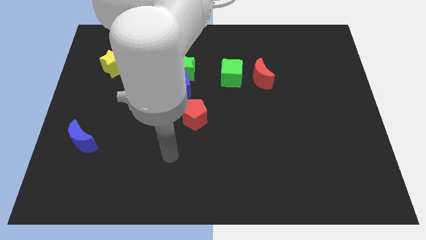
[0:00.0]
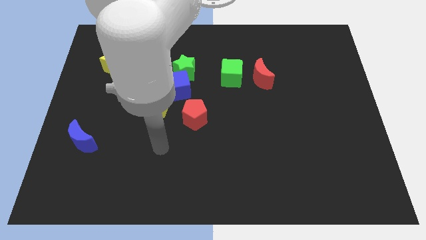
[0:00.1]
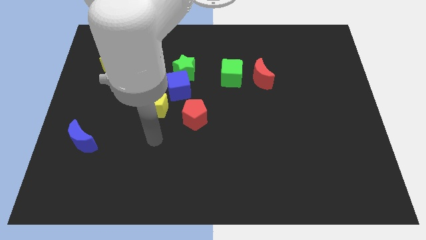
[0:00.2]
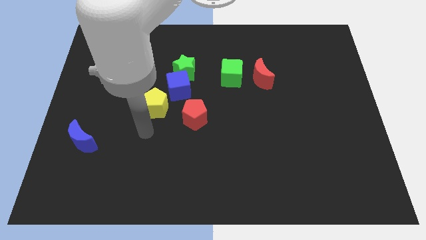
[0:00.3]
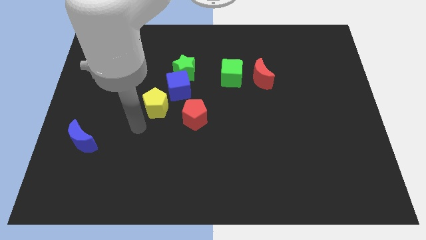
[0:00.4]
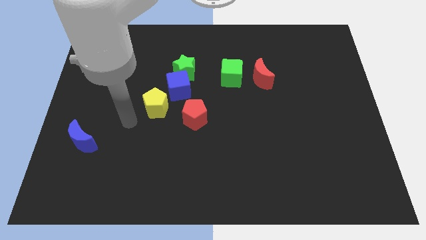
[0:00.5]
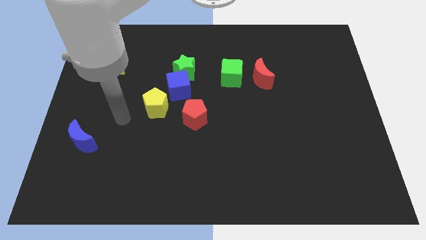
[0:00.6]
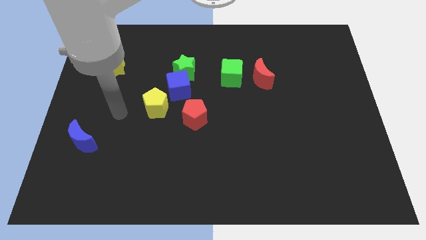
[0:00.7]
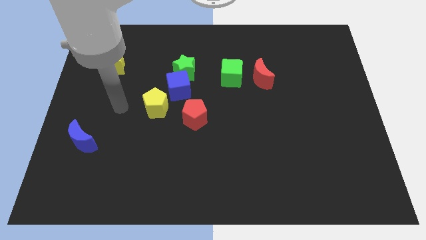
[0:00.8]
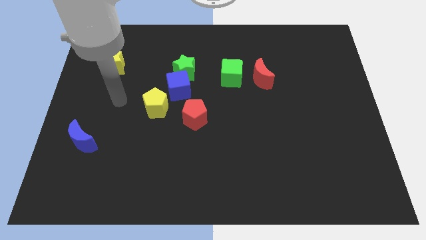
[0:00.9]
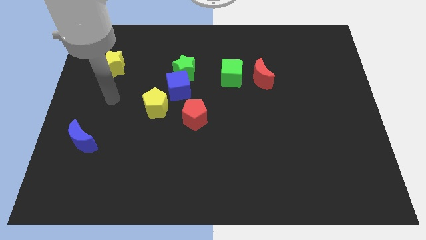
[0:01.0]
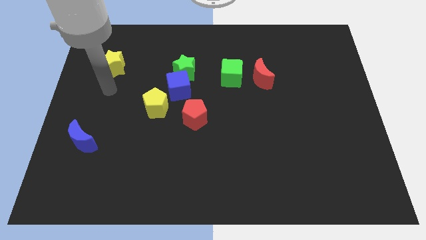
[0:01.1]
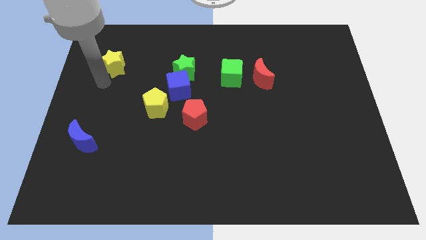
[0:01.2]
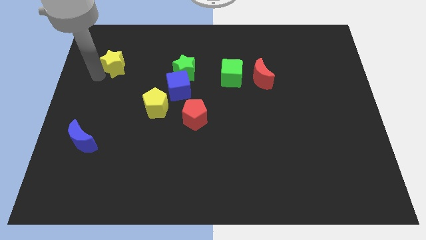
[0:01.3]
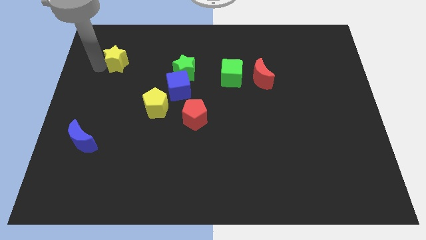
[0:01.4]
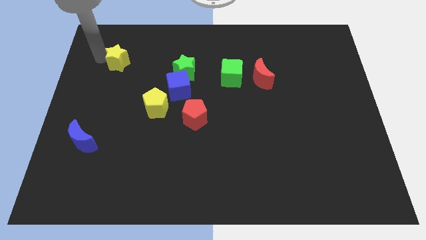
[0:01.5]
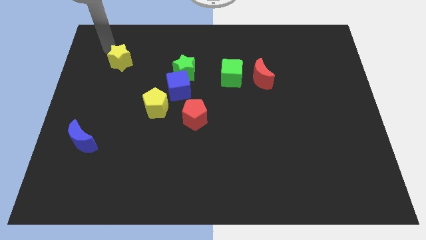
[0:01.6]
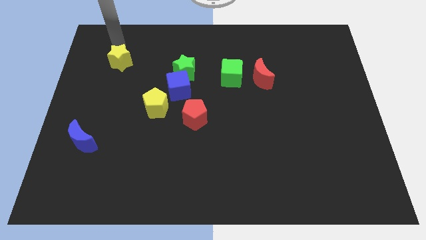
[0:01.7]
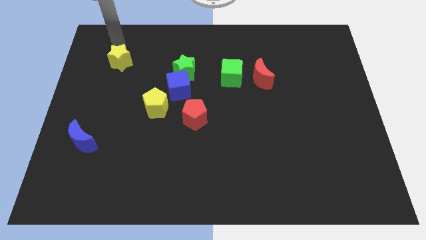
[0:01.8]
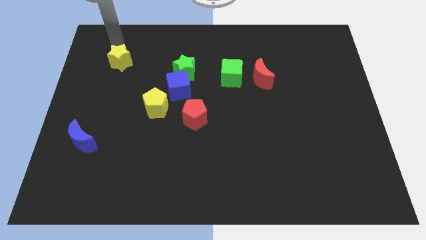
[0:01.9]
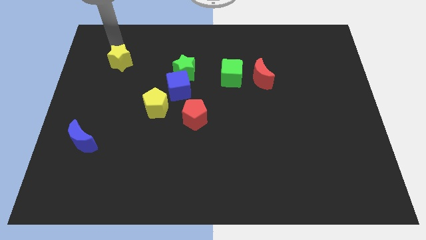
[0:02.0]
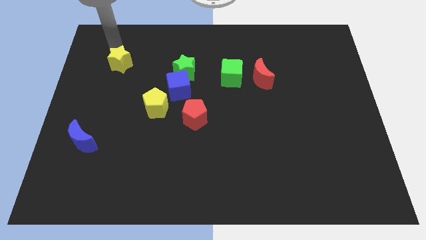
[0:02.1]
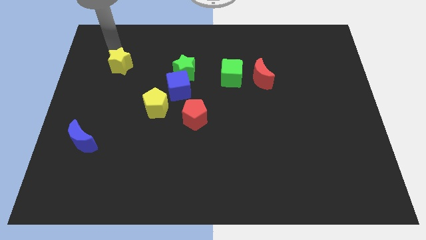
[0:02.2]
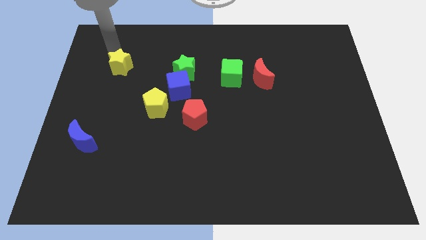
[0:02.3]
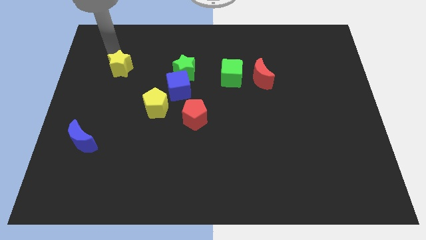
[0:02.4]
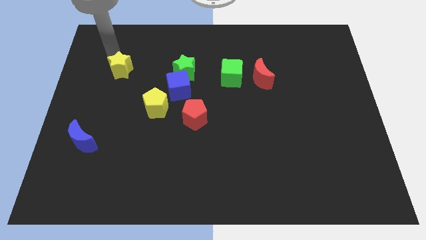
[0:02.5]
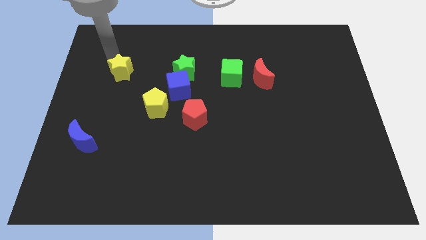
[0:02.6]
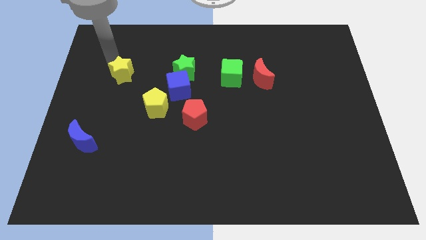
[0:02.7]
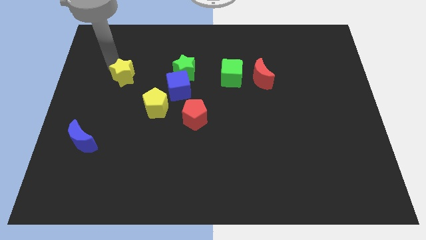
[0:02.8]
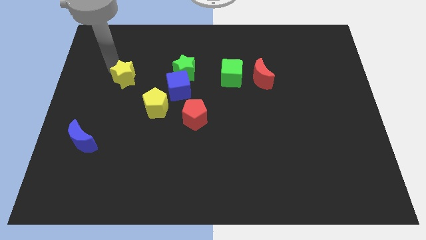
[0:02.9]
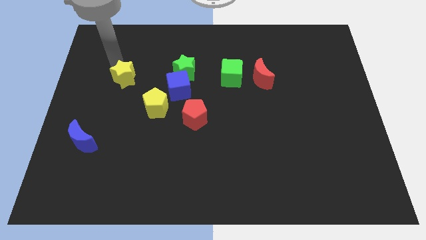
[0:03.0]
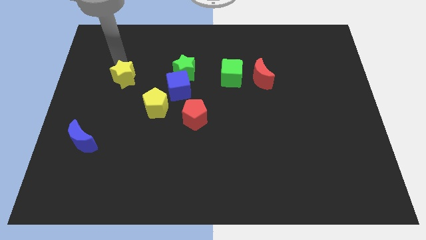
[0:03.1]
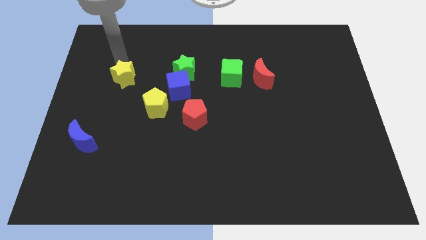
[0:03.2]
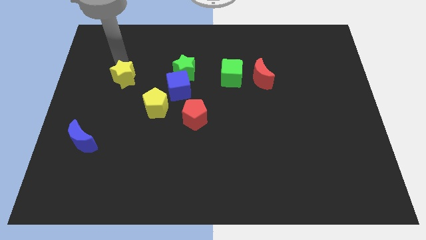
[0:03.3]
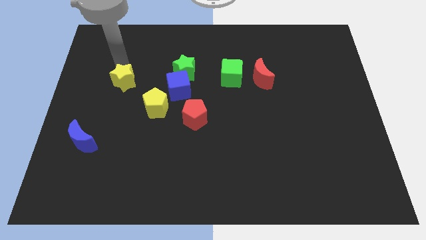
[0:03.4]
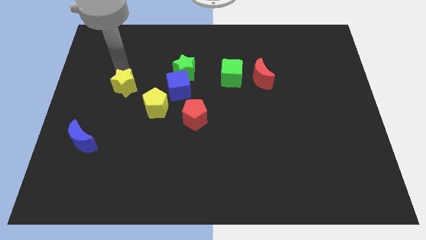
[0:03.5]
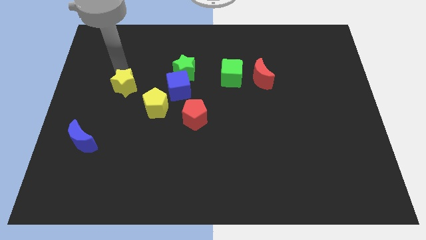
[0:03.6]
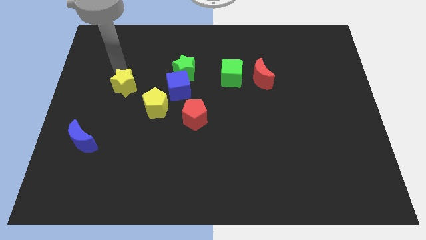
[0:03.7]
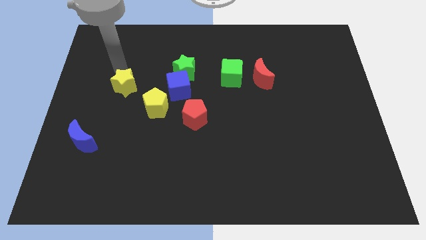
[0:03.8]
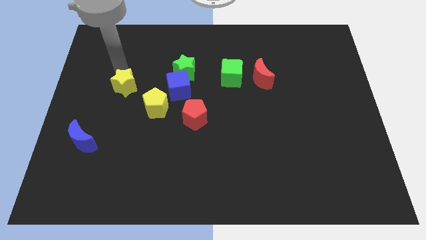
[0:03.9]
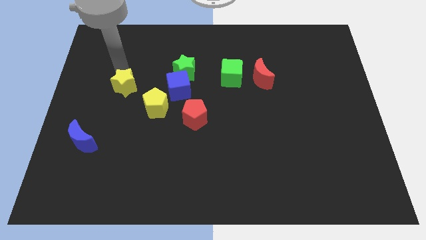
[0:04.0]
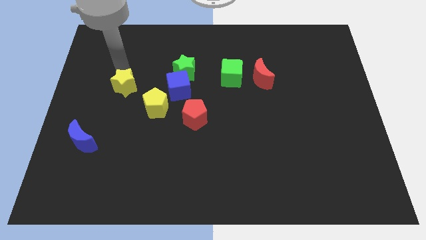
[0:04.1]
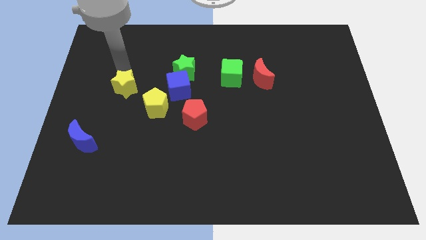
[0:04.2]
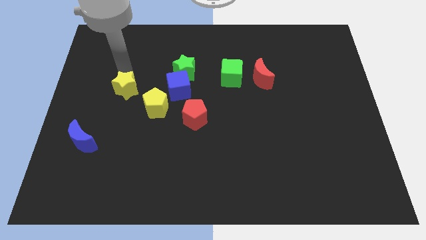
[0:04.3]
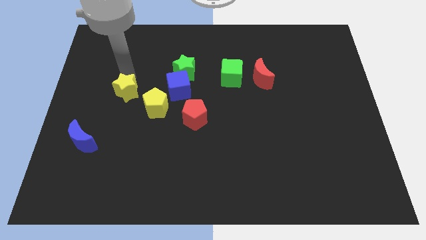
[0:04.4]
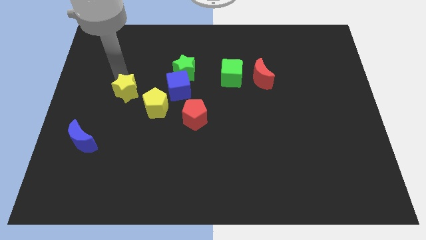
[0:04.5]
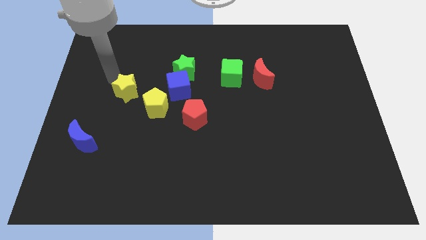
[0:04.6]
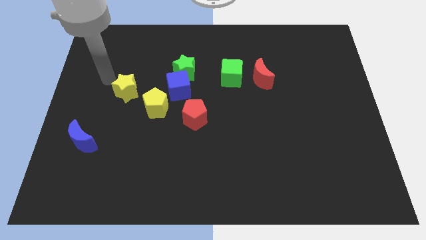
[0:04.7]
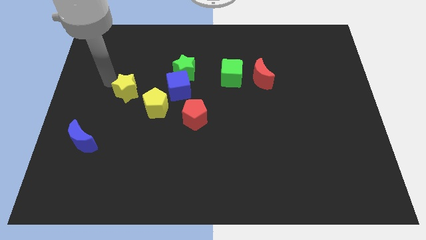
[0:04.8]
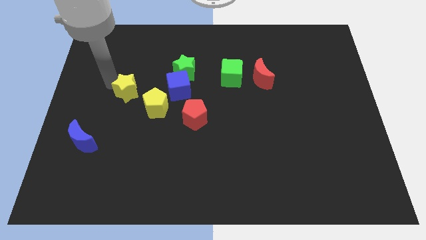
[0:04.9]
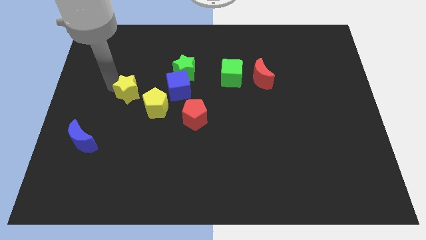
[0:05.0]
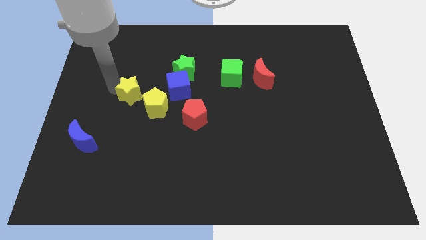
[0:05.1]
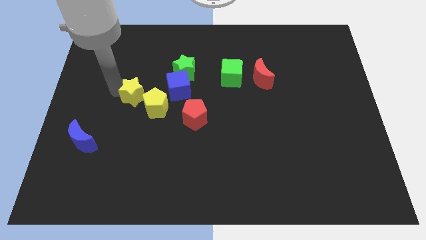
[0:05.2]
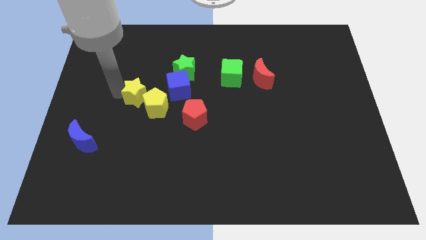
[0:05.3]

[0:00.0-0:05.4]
push the yellow star to the yellow pentagon

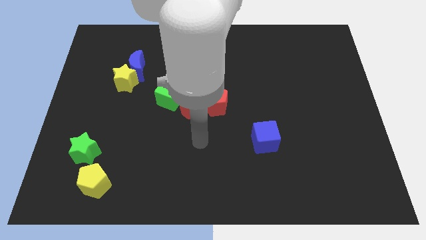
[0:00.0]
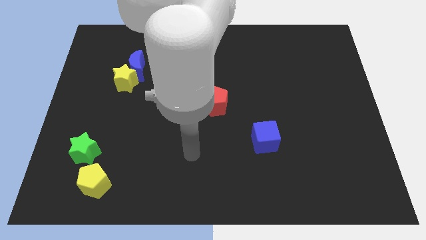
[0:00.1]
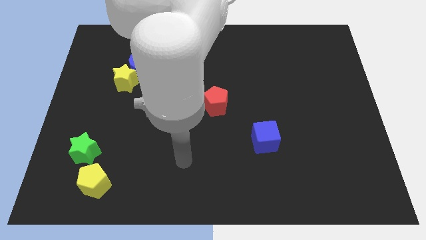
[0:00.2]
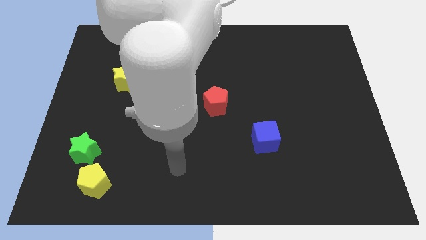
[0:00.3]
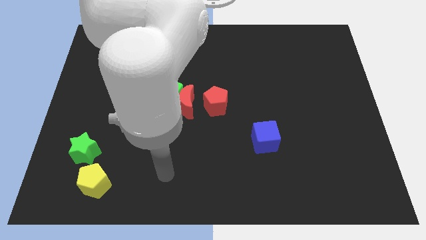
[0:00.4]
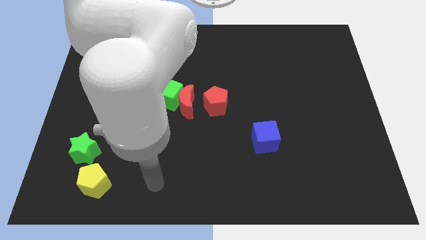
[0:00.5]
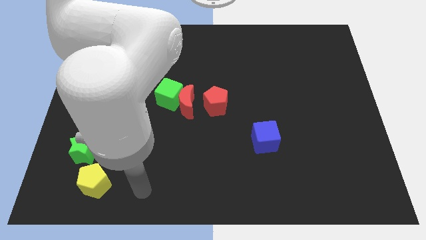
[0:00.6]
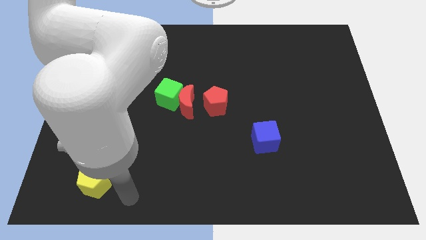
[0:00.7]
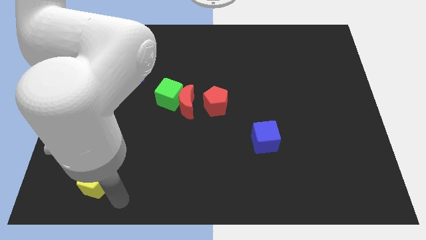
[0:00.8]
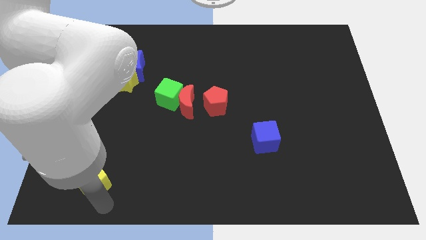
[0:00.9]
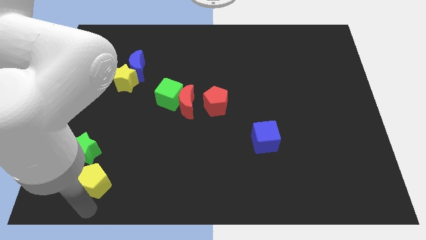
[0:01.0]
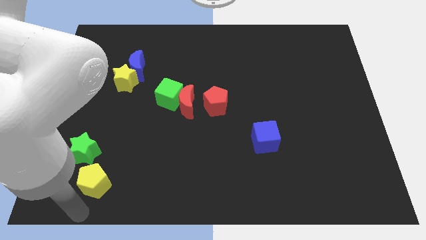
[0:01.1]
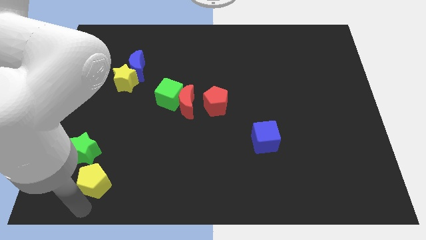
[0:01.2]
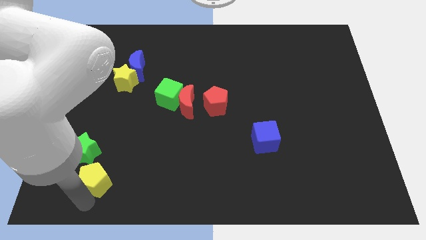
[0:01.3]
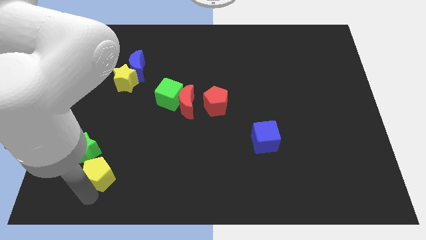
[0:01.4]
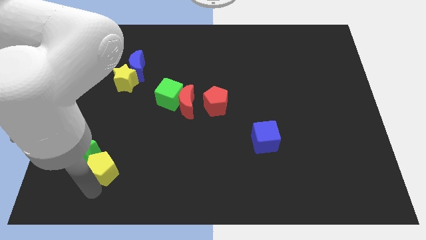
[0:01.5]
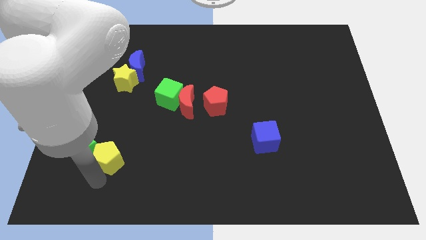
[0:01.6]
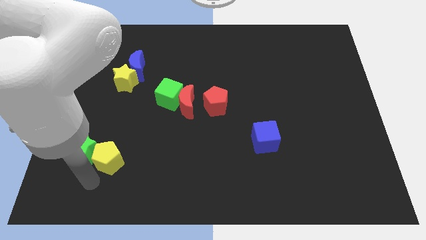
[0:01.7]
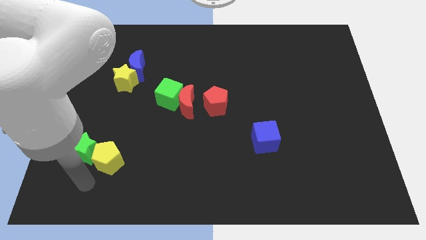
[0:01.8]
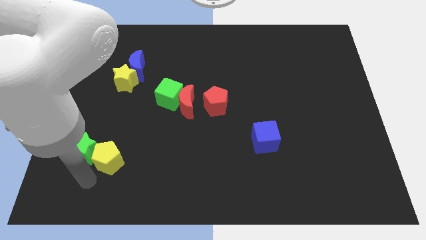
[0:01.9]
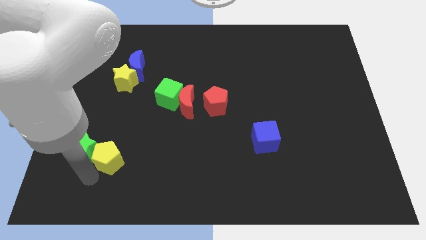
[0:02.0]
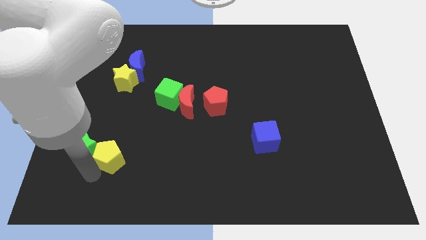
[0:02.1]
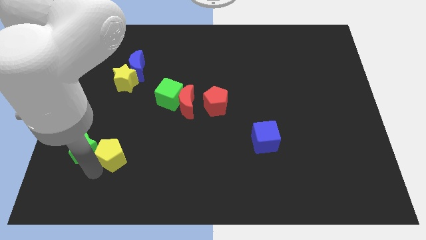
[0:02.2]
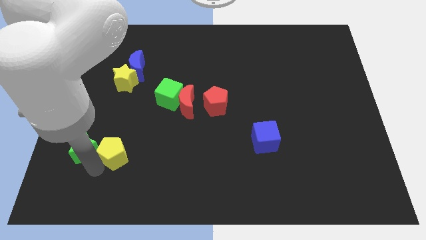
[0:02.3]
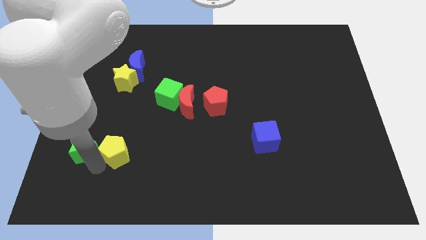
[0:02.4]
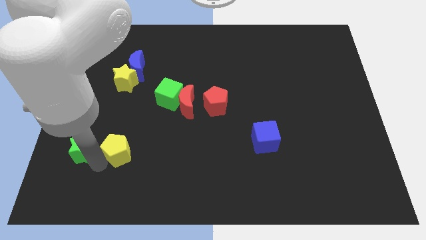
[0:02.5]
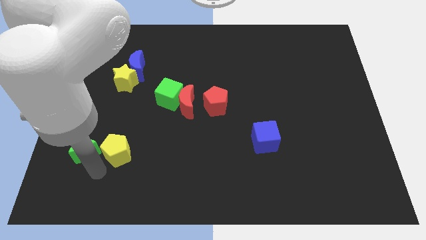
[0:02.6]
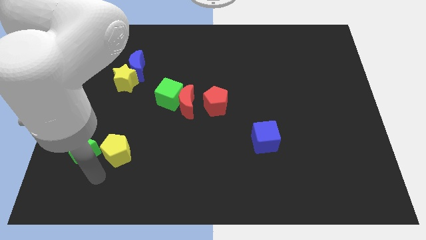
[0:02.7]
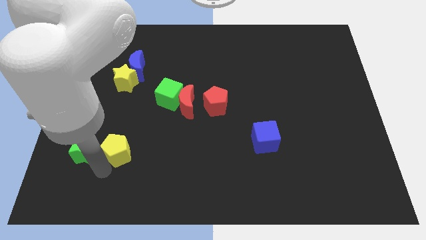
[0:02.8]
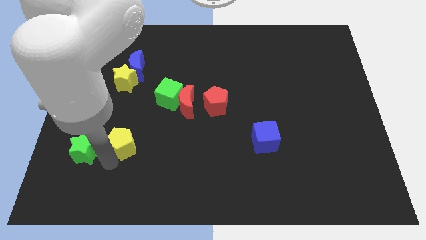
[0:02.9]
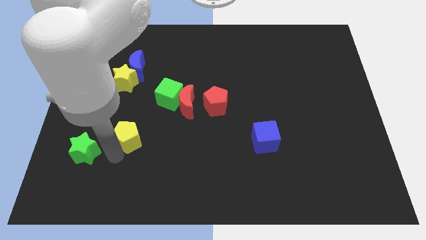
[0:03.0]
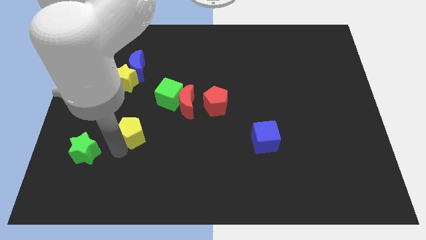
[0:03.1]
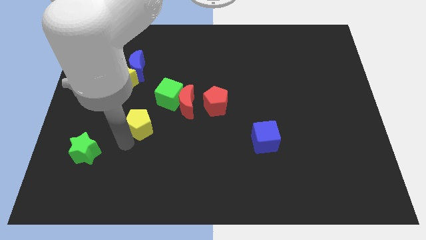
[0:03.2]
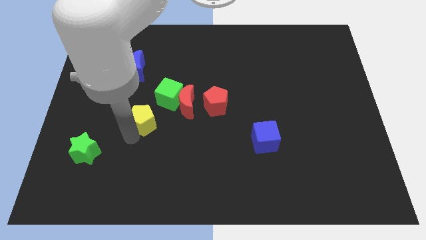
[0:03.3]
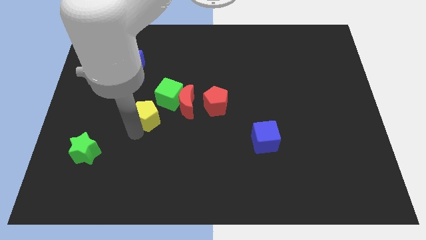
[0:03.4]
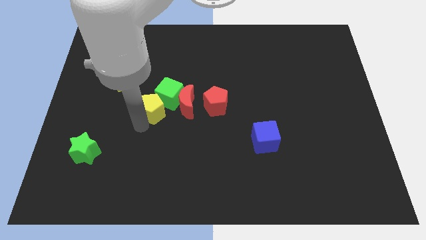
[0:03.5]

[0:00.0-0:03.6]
slide the yellow pentagon to the green cube
